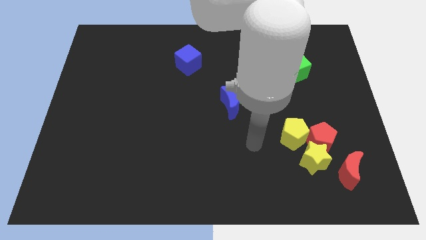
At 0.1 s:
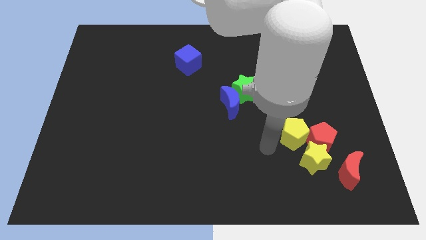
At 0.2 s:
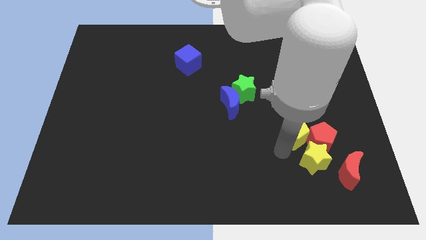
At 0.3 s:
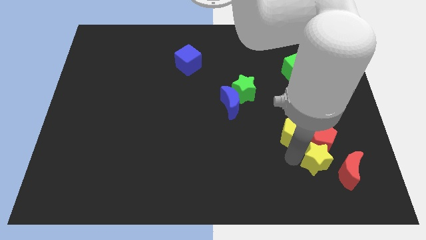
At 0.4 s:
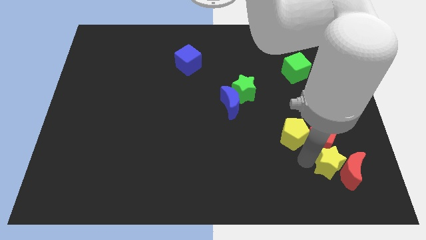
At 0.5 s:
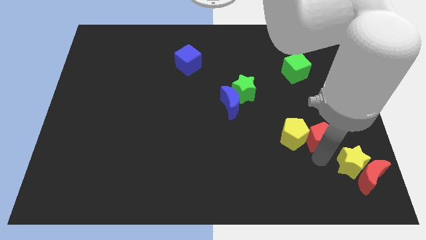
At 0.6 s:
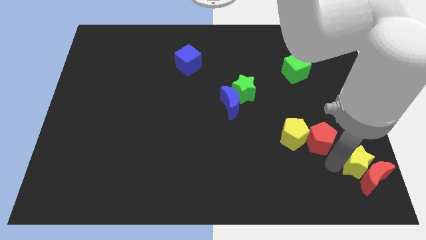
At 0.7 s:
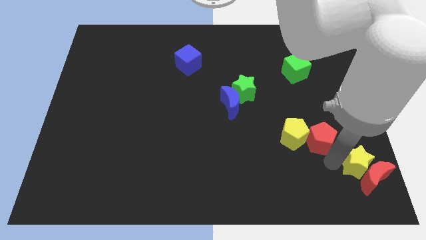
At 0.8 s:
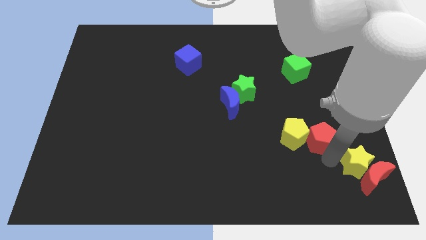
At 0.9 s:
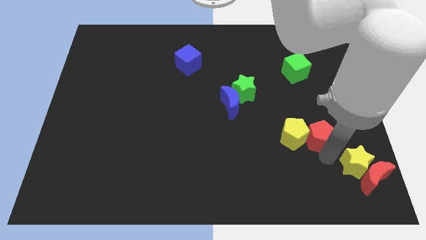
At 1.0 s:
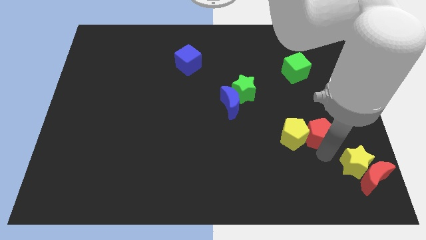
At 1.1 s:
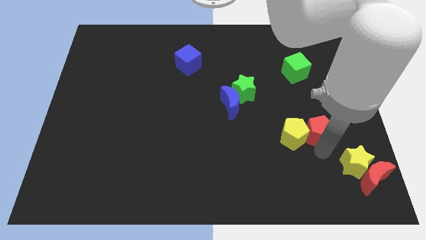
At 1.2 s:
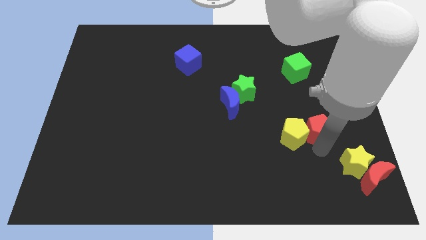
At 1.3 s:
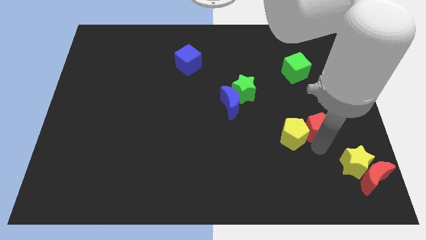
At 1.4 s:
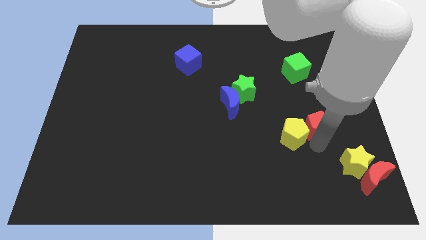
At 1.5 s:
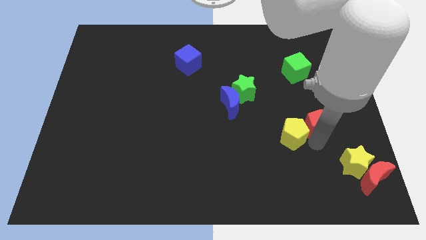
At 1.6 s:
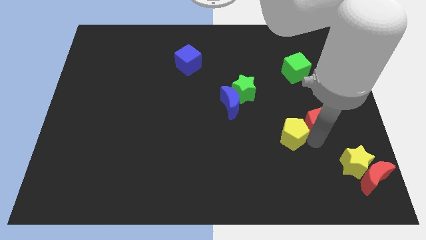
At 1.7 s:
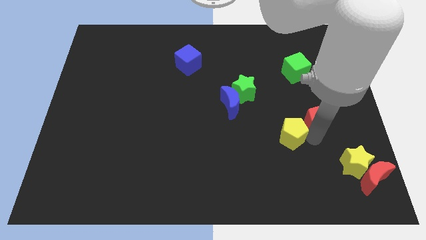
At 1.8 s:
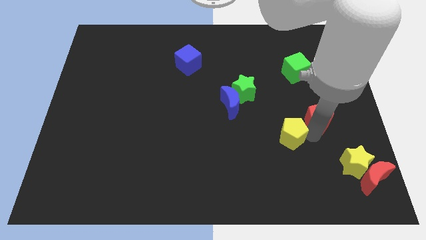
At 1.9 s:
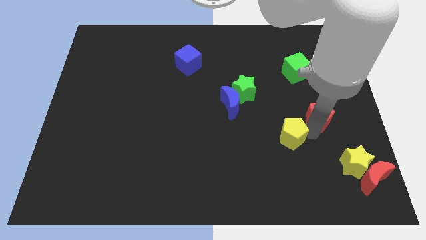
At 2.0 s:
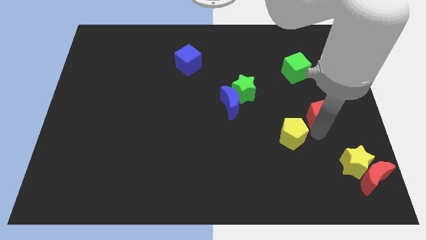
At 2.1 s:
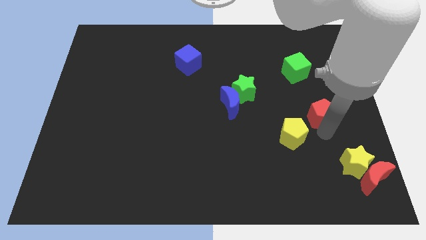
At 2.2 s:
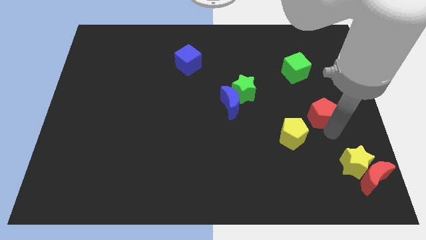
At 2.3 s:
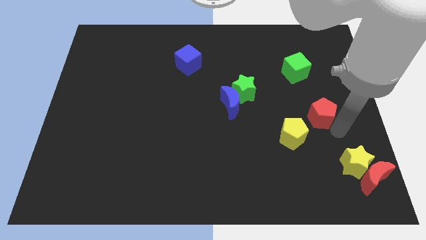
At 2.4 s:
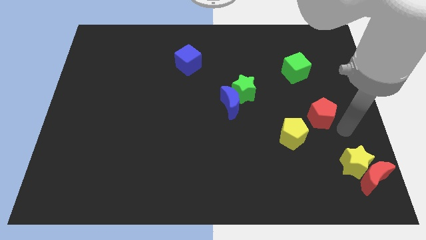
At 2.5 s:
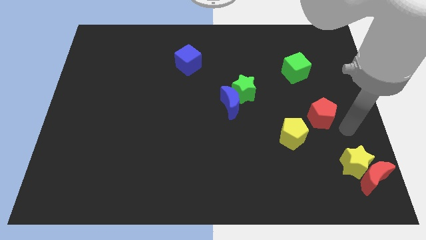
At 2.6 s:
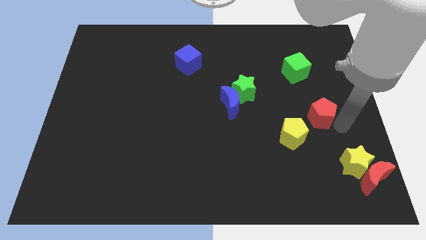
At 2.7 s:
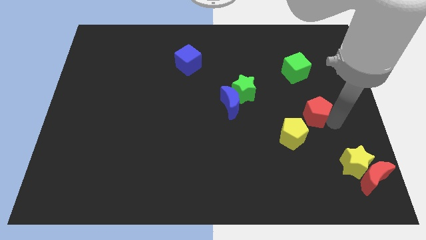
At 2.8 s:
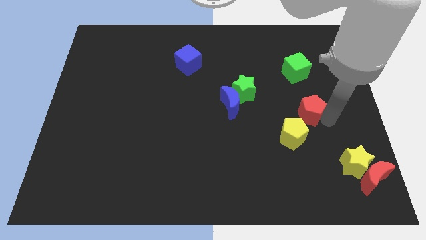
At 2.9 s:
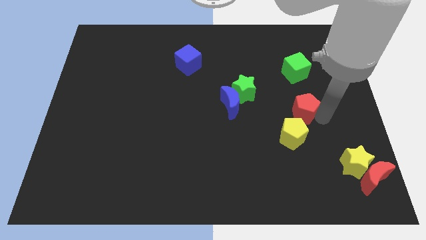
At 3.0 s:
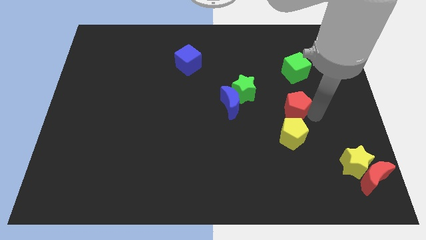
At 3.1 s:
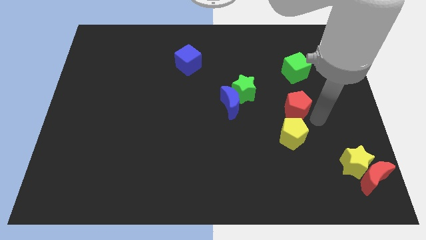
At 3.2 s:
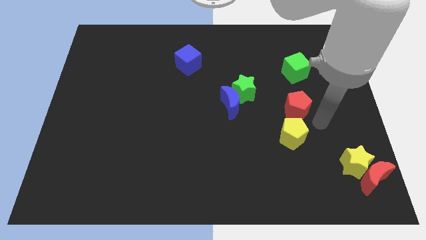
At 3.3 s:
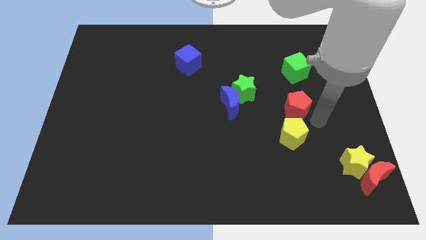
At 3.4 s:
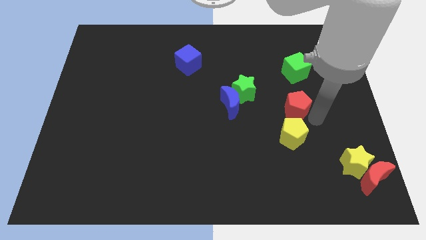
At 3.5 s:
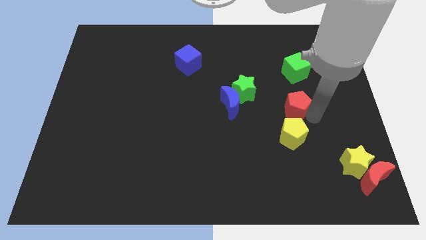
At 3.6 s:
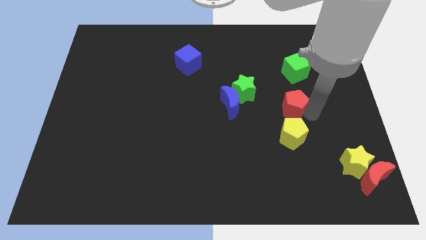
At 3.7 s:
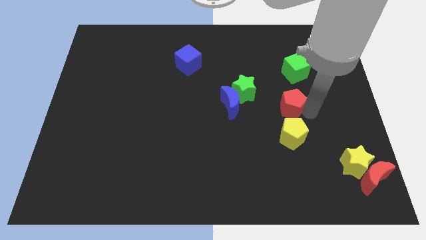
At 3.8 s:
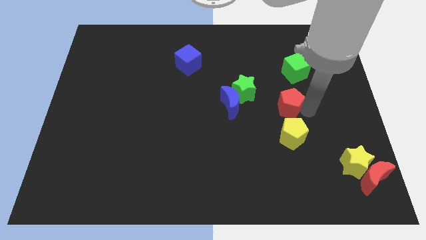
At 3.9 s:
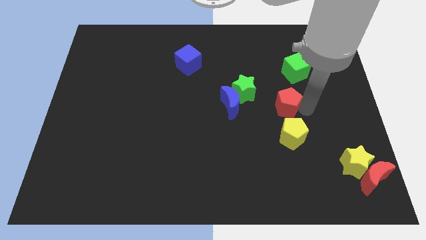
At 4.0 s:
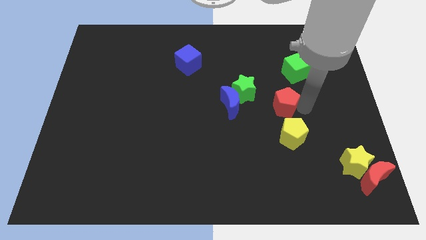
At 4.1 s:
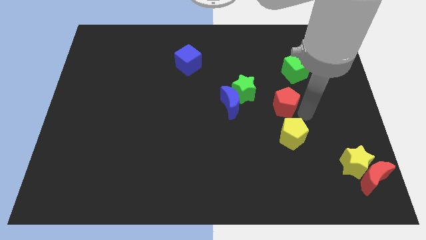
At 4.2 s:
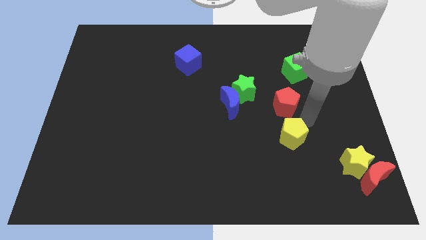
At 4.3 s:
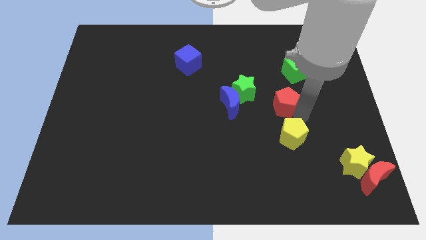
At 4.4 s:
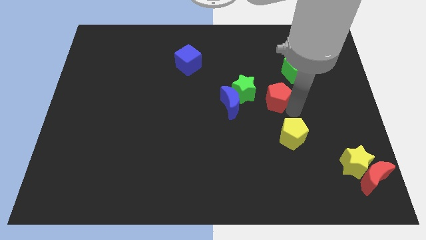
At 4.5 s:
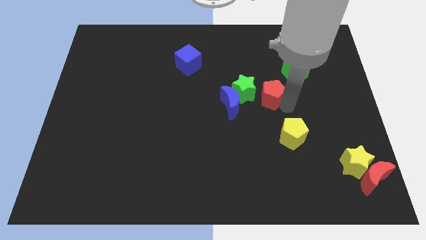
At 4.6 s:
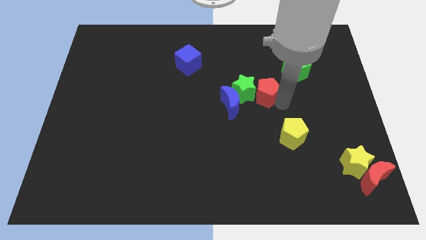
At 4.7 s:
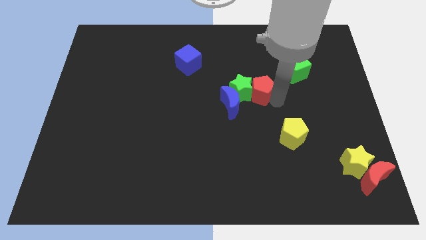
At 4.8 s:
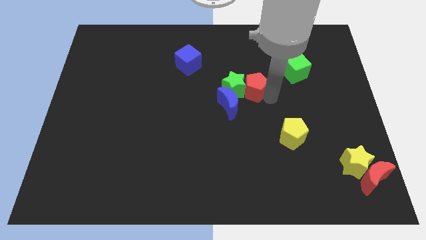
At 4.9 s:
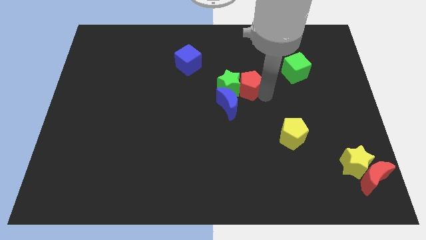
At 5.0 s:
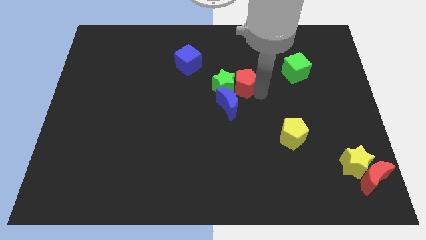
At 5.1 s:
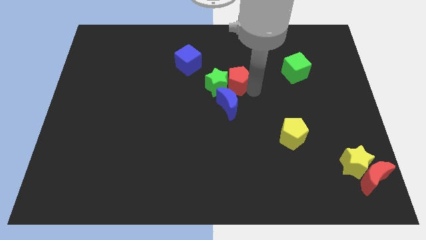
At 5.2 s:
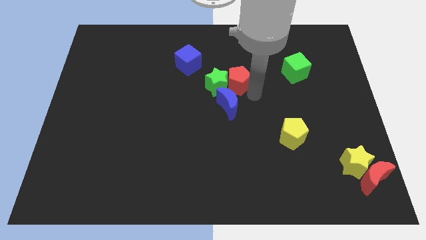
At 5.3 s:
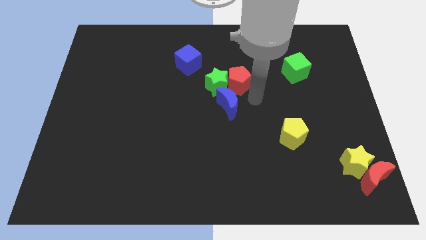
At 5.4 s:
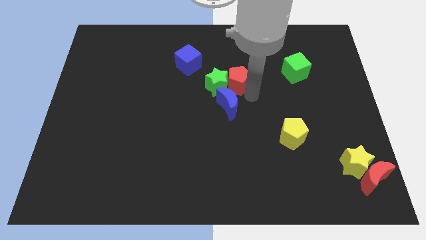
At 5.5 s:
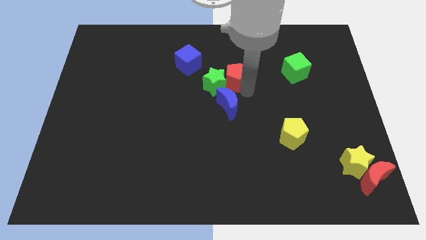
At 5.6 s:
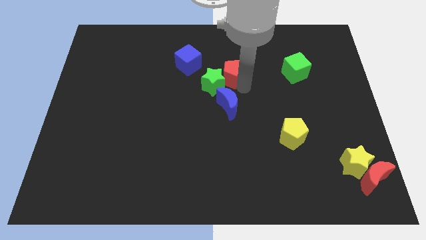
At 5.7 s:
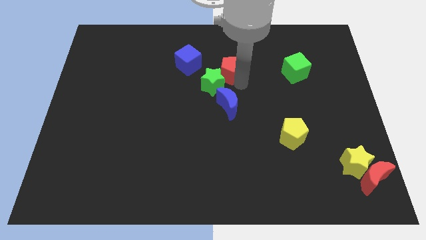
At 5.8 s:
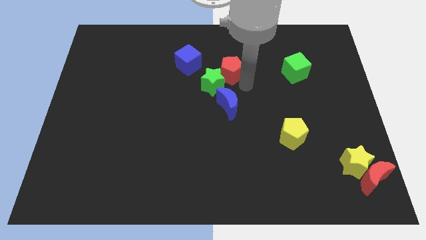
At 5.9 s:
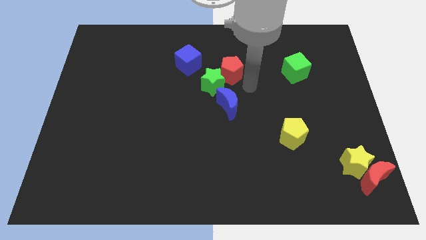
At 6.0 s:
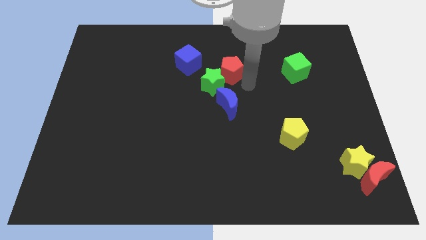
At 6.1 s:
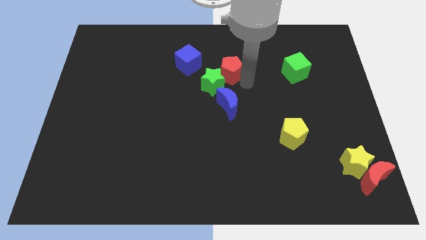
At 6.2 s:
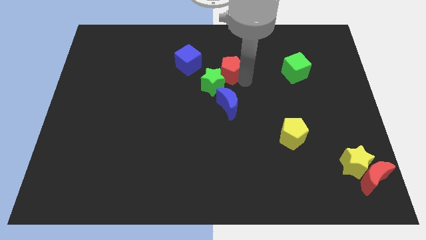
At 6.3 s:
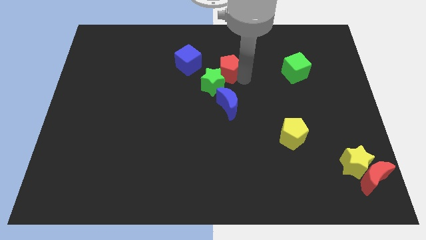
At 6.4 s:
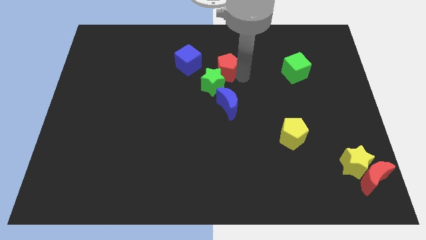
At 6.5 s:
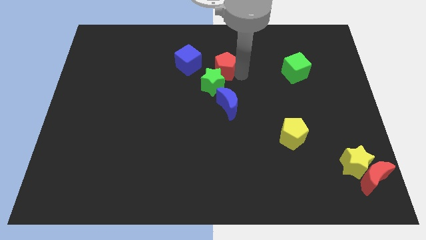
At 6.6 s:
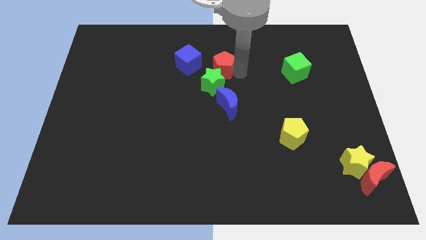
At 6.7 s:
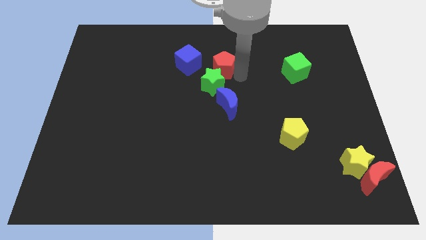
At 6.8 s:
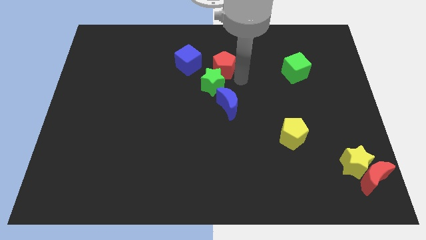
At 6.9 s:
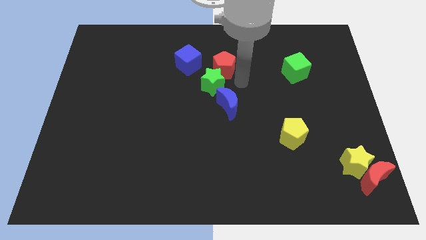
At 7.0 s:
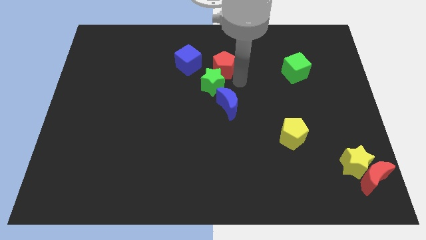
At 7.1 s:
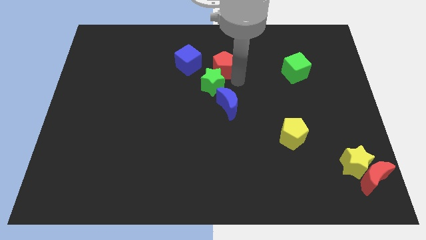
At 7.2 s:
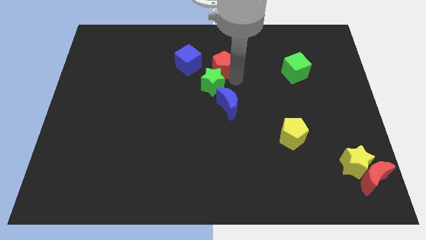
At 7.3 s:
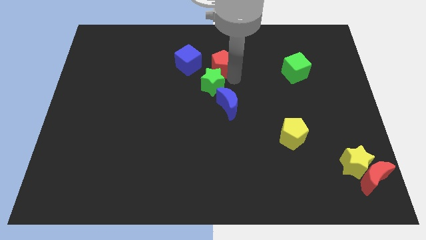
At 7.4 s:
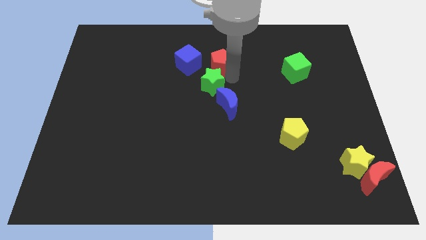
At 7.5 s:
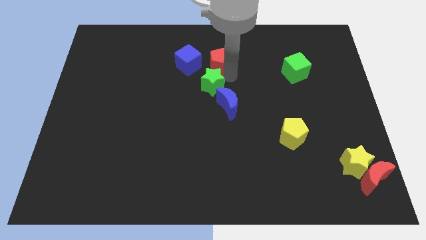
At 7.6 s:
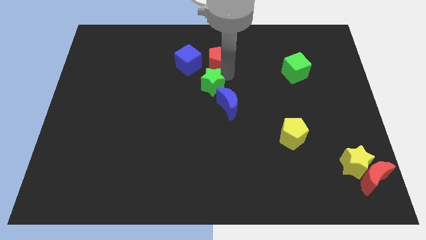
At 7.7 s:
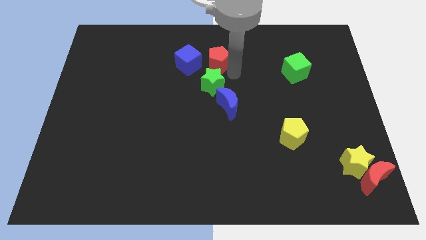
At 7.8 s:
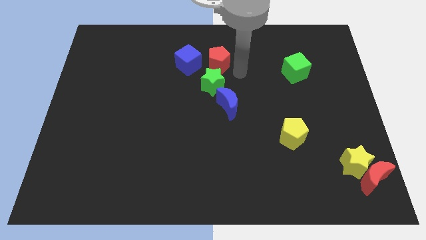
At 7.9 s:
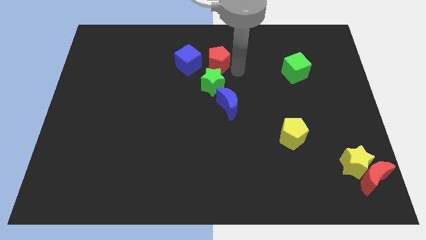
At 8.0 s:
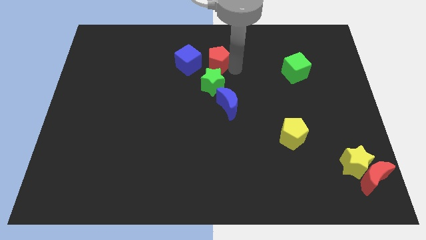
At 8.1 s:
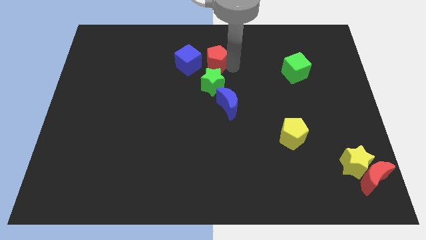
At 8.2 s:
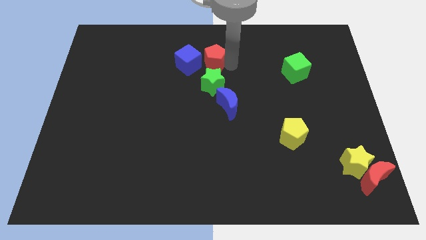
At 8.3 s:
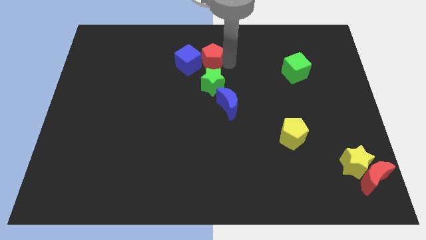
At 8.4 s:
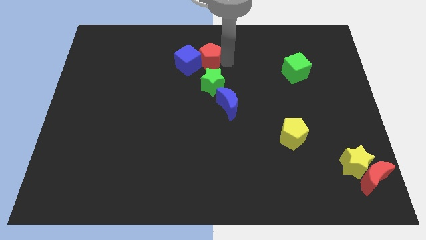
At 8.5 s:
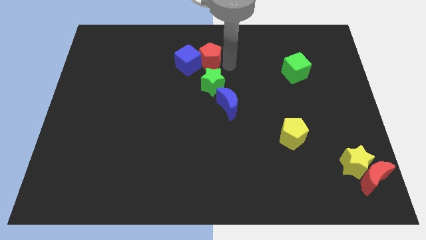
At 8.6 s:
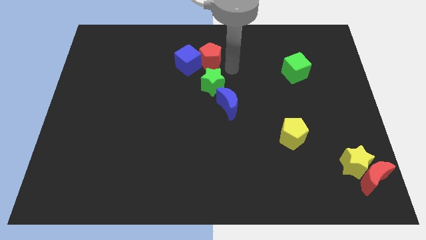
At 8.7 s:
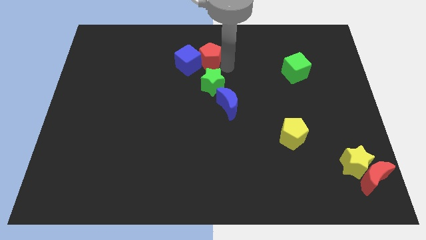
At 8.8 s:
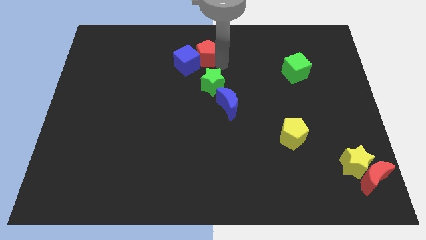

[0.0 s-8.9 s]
put the red pentagon to the towards your base
